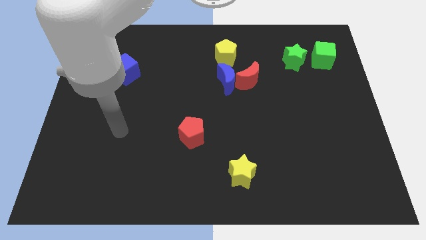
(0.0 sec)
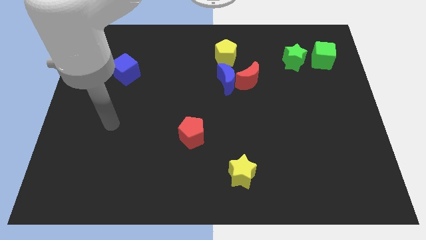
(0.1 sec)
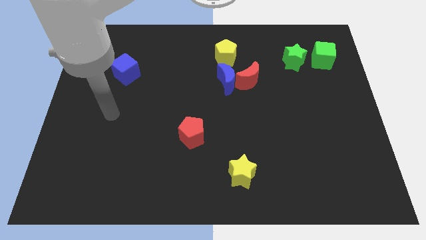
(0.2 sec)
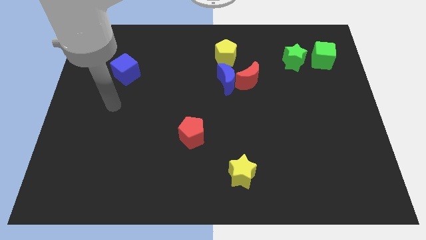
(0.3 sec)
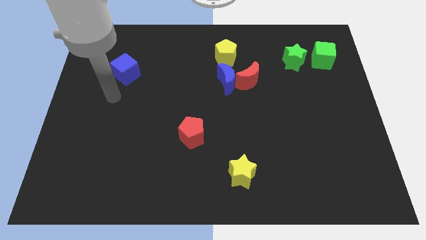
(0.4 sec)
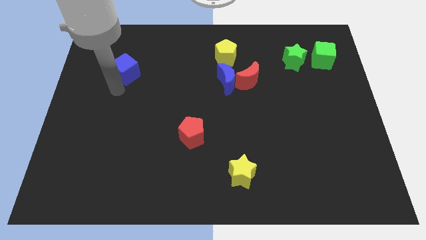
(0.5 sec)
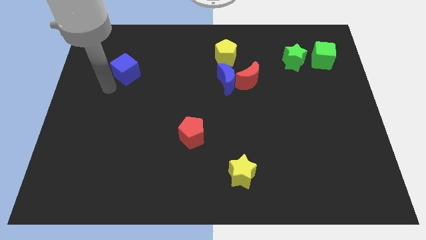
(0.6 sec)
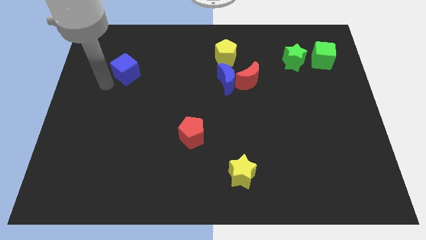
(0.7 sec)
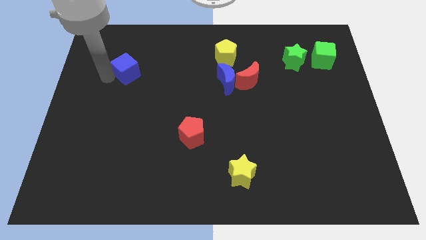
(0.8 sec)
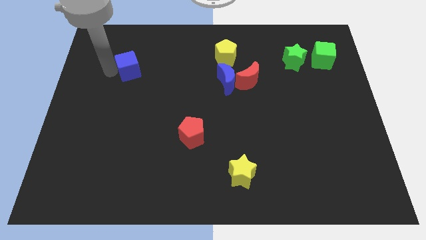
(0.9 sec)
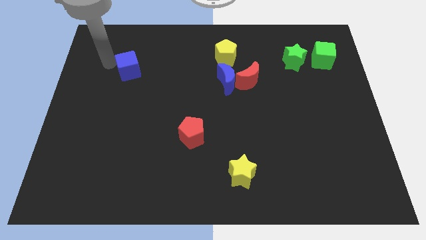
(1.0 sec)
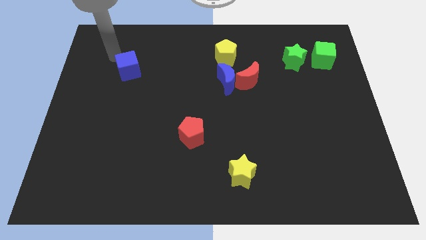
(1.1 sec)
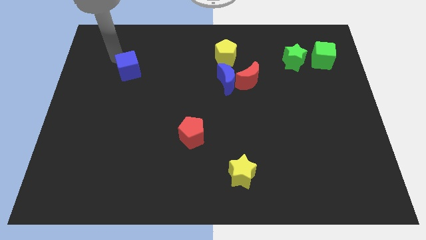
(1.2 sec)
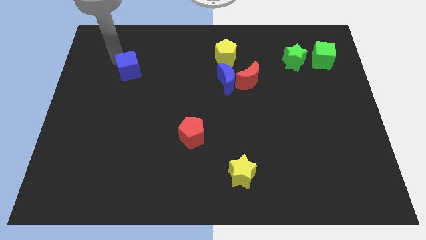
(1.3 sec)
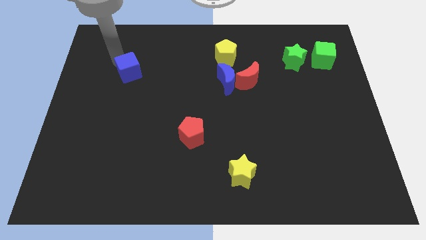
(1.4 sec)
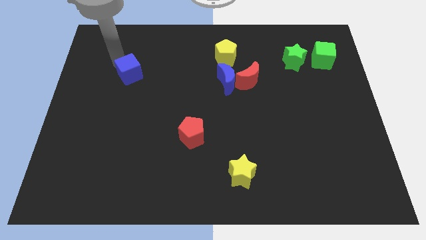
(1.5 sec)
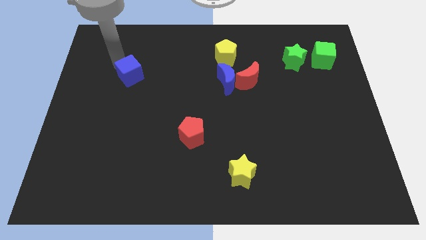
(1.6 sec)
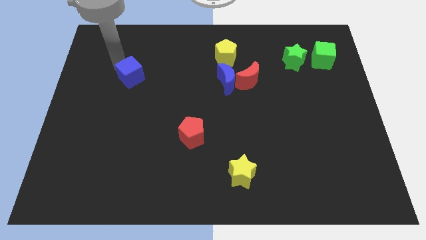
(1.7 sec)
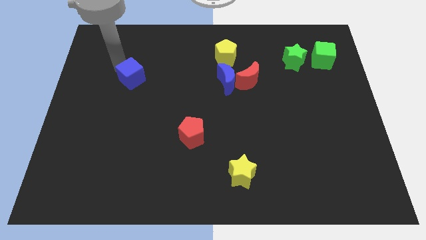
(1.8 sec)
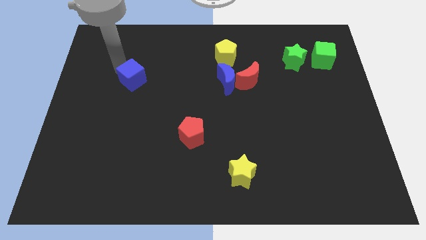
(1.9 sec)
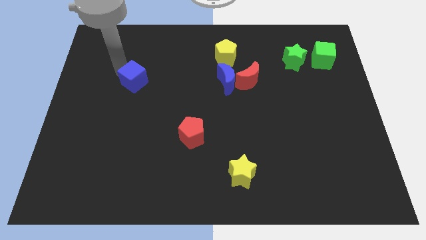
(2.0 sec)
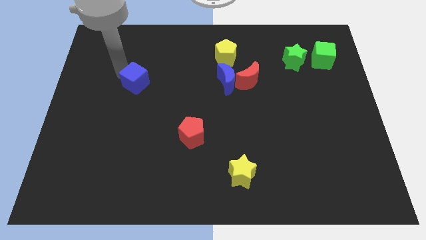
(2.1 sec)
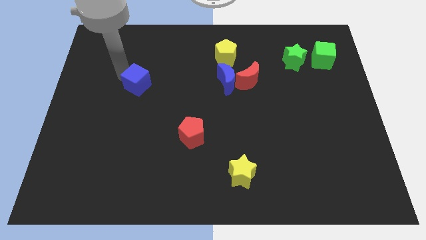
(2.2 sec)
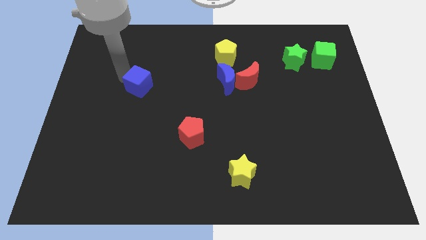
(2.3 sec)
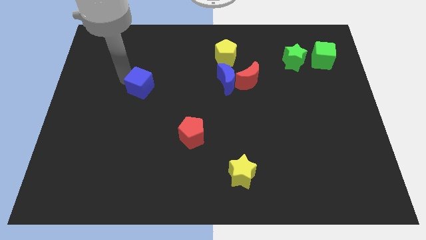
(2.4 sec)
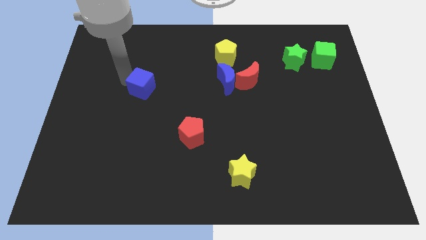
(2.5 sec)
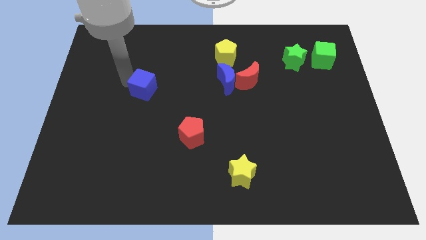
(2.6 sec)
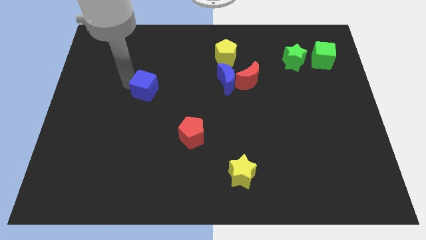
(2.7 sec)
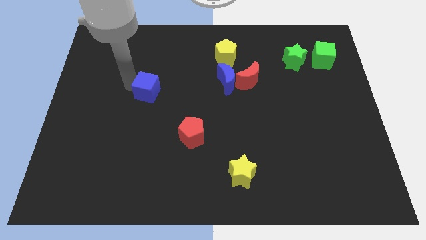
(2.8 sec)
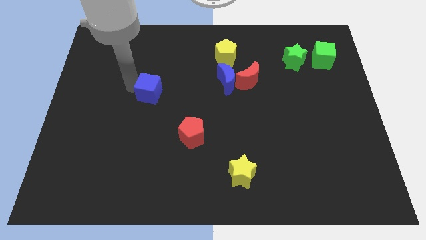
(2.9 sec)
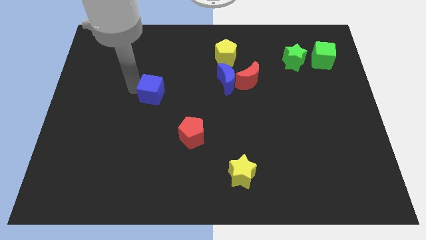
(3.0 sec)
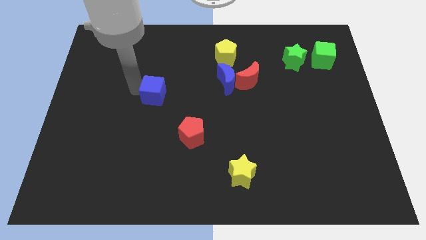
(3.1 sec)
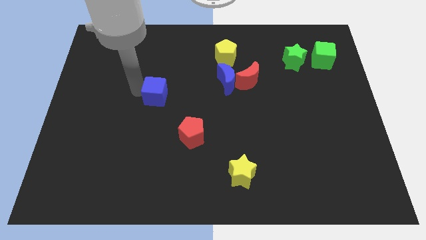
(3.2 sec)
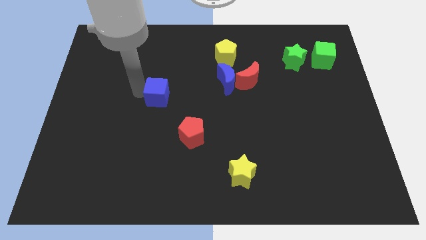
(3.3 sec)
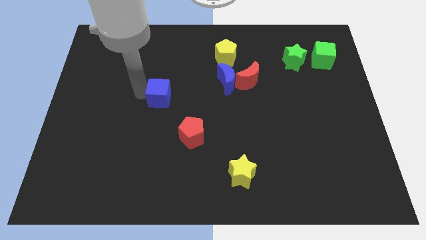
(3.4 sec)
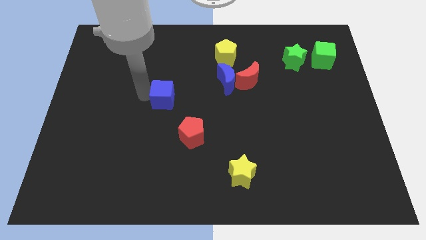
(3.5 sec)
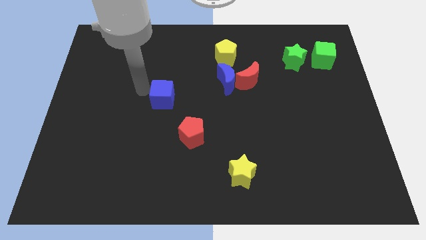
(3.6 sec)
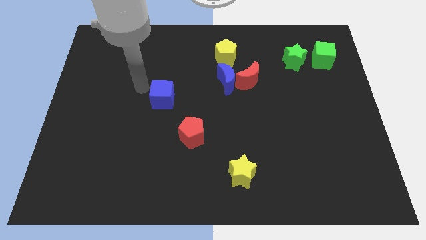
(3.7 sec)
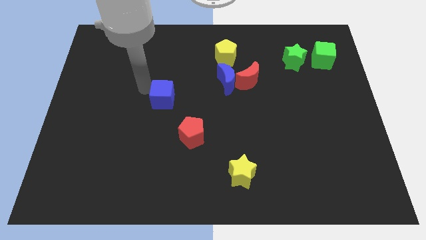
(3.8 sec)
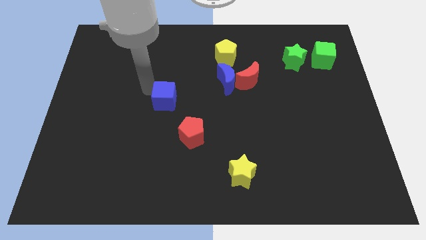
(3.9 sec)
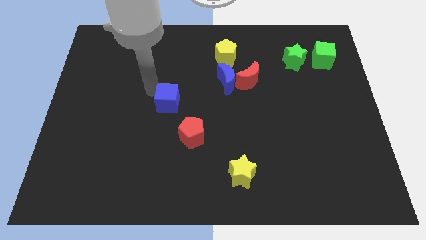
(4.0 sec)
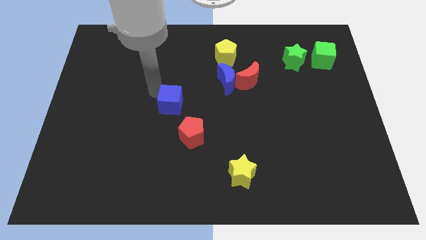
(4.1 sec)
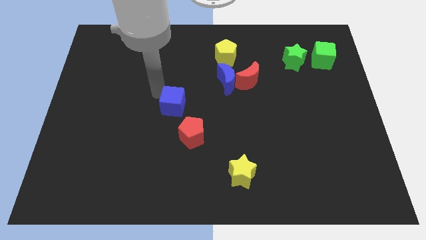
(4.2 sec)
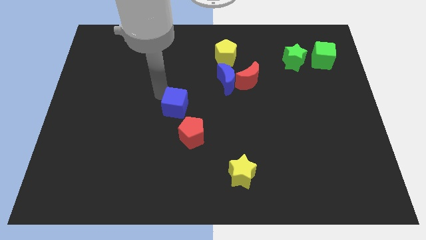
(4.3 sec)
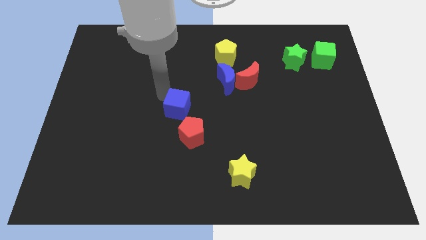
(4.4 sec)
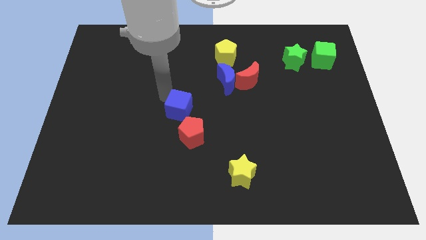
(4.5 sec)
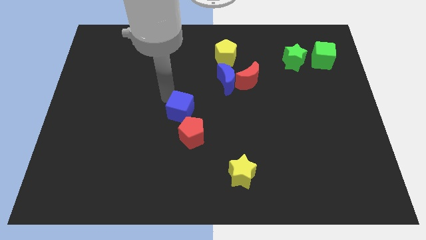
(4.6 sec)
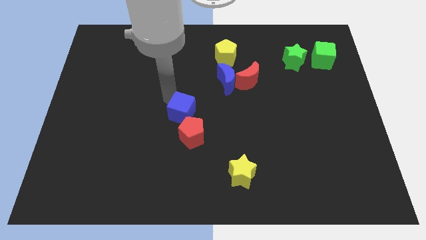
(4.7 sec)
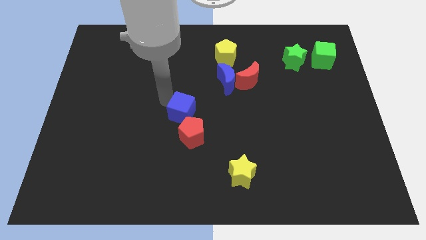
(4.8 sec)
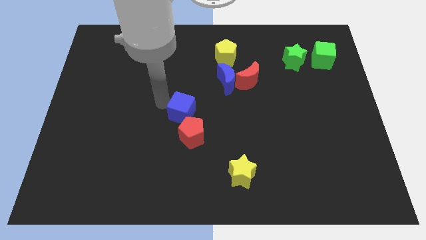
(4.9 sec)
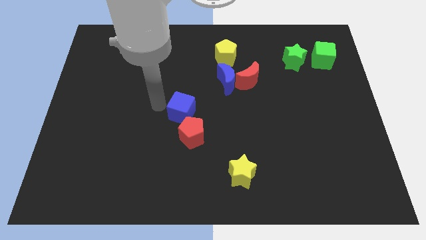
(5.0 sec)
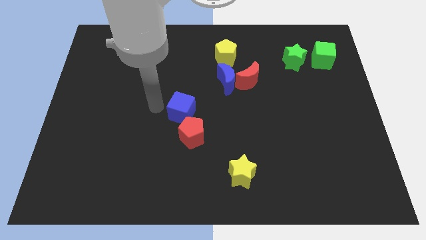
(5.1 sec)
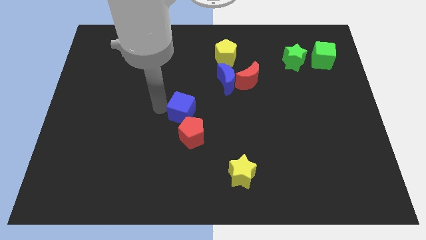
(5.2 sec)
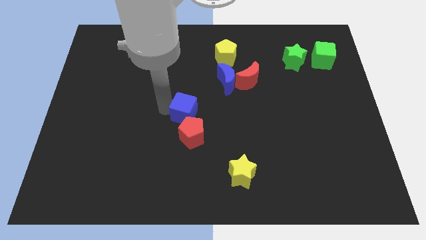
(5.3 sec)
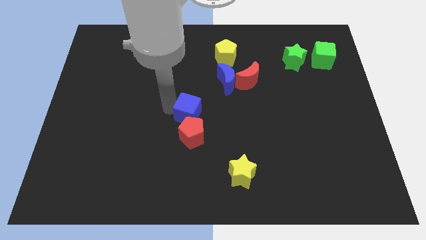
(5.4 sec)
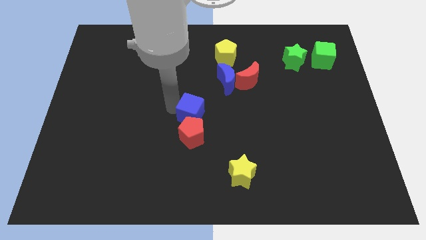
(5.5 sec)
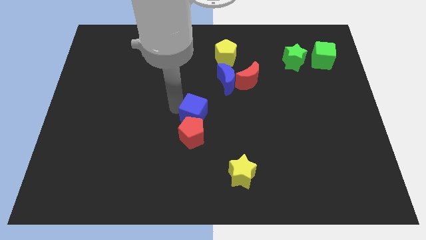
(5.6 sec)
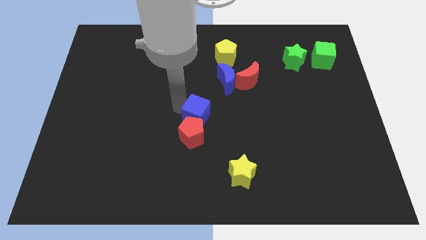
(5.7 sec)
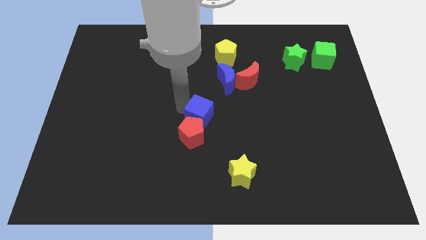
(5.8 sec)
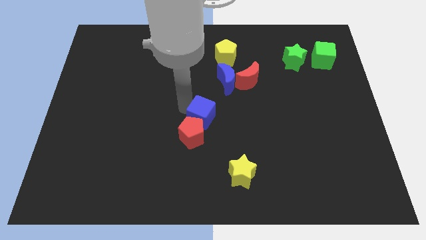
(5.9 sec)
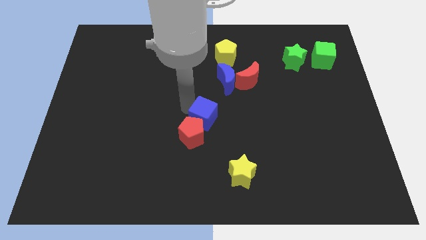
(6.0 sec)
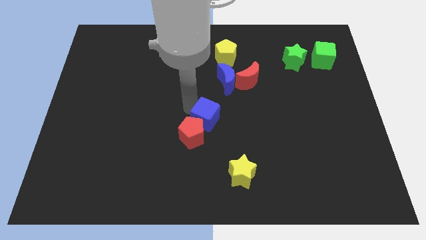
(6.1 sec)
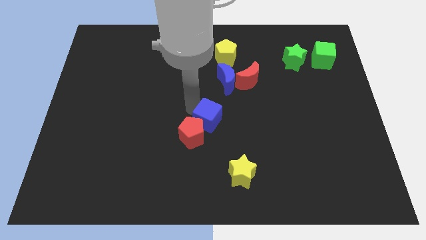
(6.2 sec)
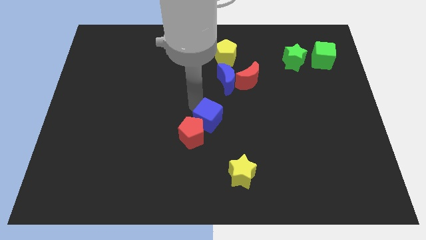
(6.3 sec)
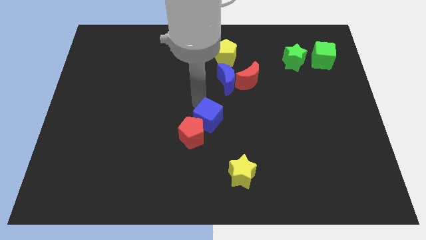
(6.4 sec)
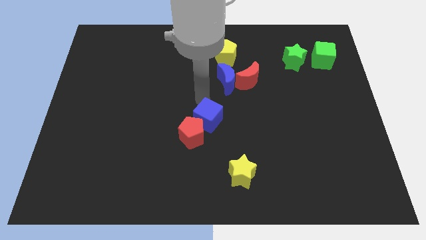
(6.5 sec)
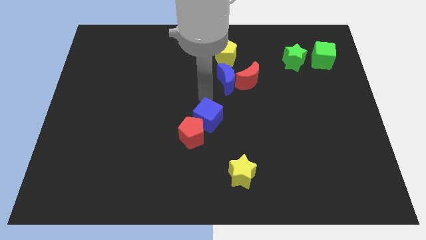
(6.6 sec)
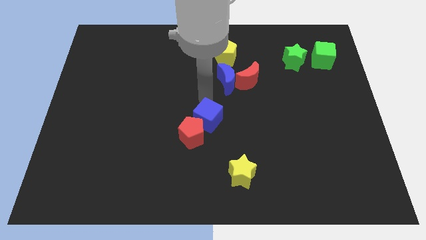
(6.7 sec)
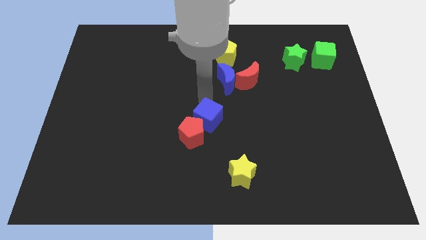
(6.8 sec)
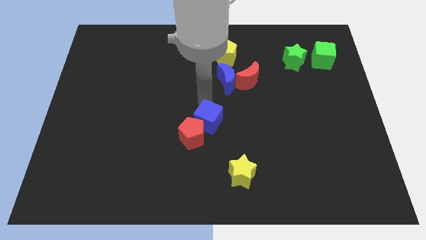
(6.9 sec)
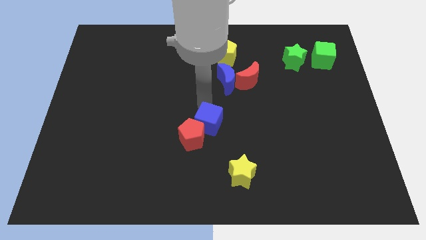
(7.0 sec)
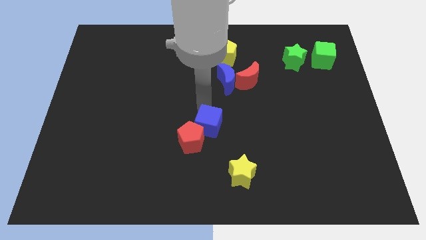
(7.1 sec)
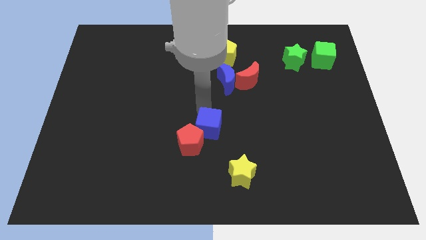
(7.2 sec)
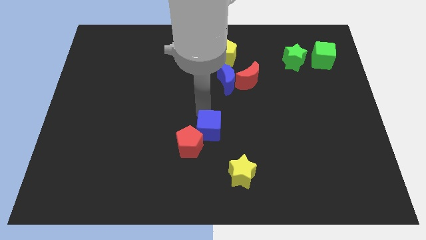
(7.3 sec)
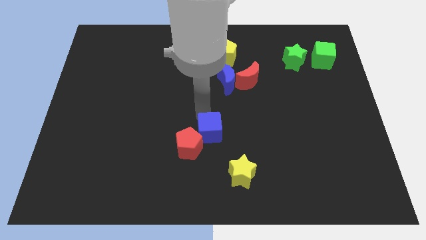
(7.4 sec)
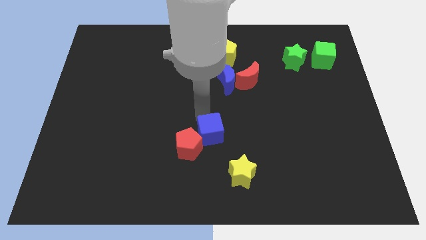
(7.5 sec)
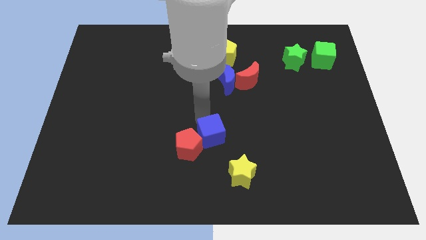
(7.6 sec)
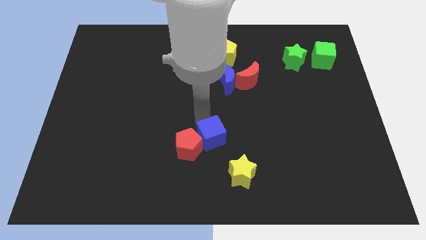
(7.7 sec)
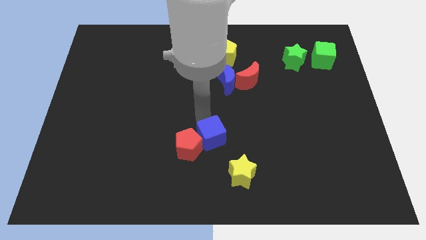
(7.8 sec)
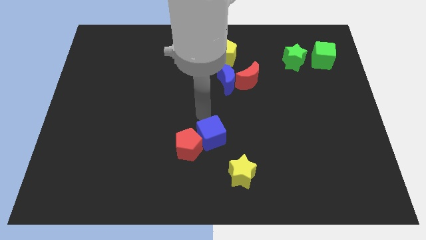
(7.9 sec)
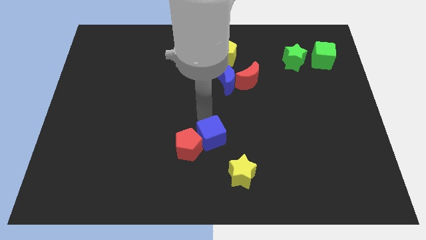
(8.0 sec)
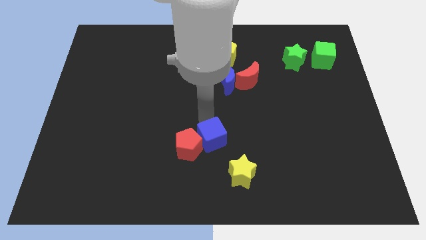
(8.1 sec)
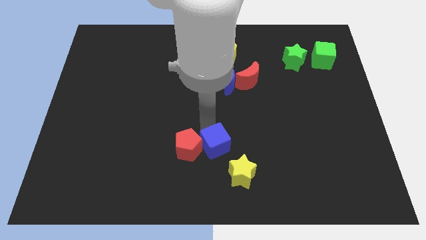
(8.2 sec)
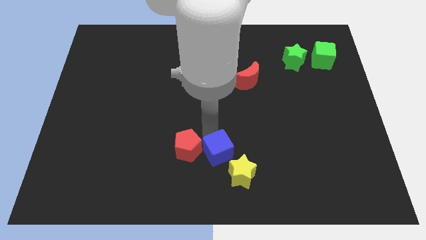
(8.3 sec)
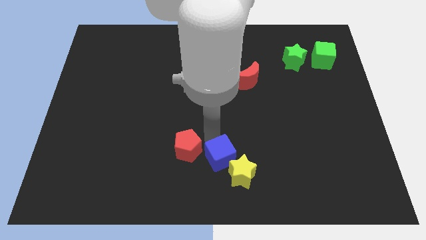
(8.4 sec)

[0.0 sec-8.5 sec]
move the blue cube towards the yellow star
